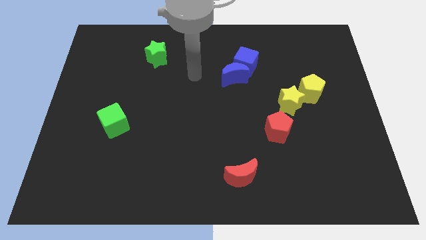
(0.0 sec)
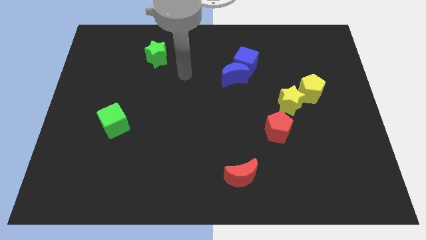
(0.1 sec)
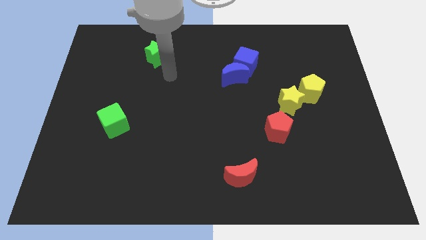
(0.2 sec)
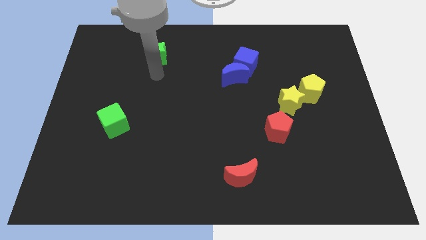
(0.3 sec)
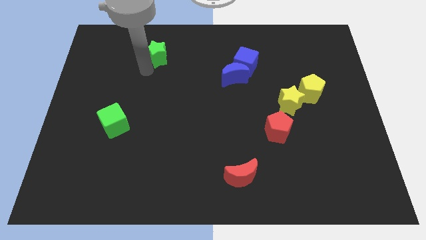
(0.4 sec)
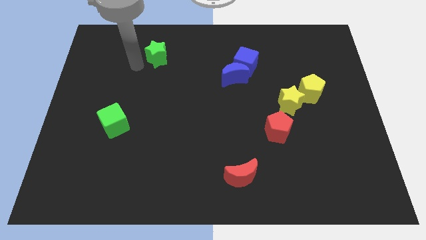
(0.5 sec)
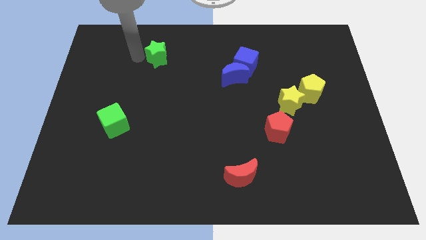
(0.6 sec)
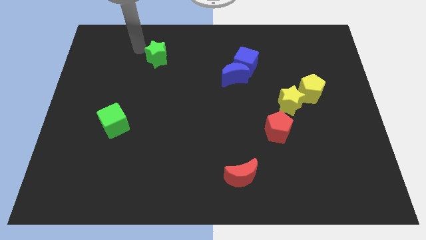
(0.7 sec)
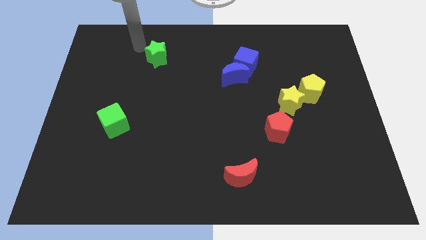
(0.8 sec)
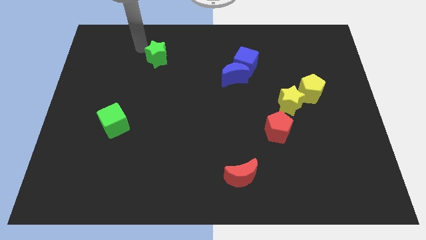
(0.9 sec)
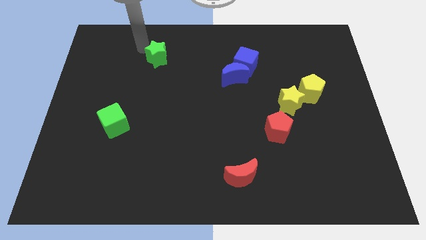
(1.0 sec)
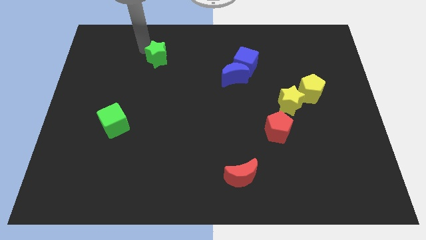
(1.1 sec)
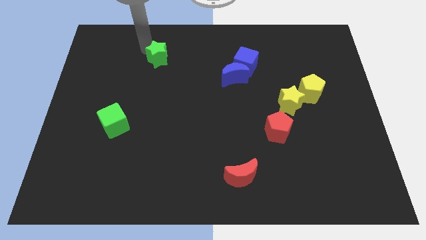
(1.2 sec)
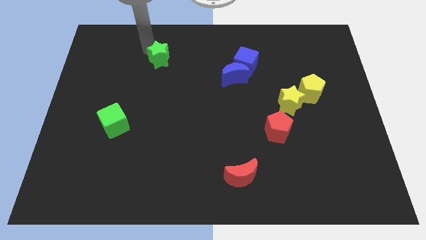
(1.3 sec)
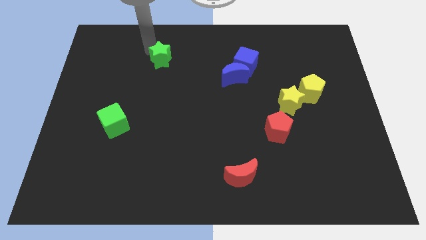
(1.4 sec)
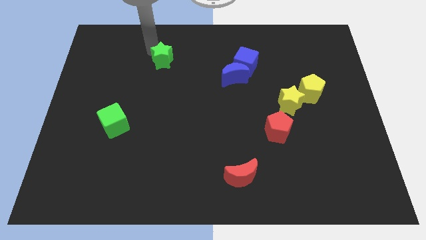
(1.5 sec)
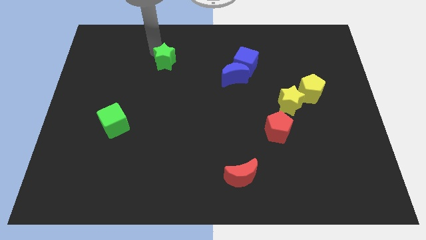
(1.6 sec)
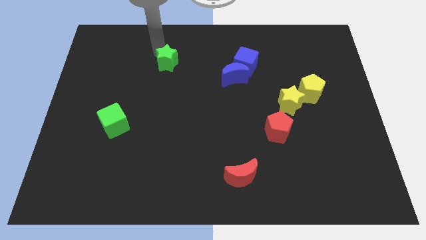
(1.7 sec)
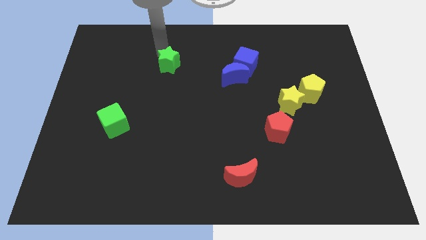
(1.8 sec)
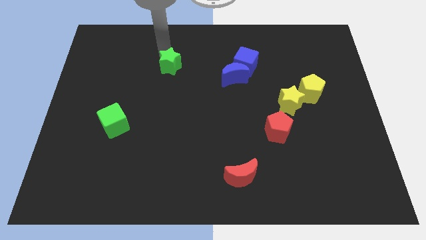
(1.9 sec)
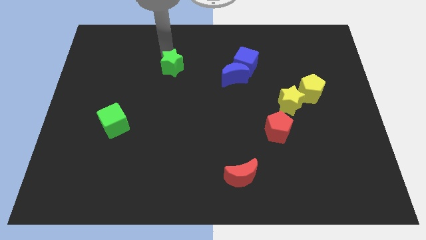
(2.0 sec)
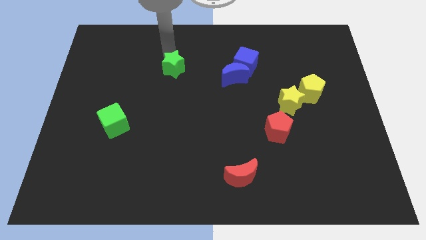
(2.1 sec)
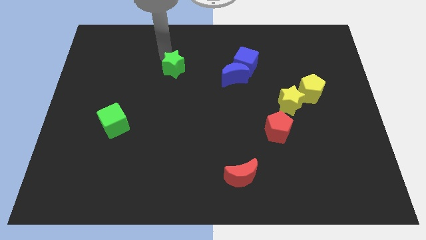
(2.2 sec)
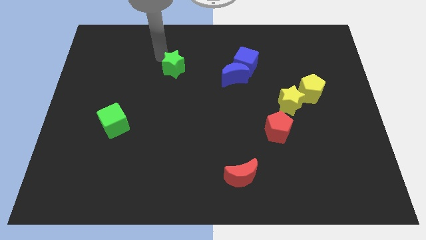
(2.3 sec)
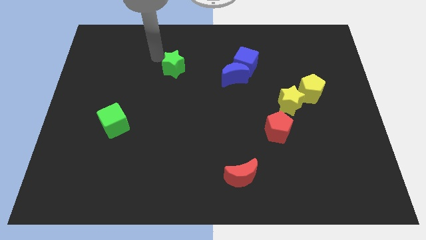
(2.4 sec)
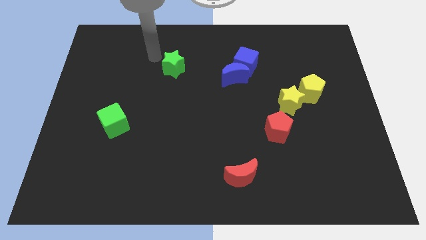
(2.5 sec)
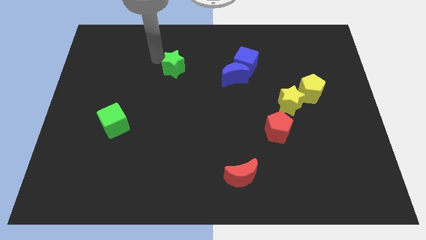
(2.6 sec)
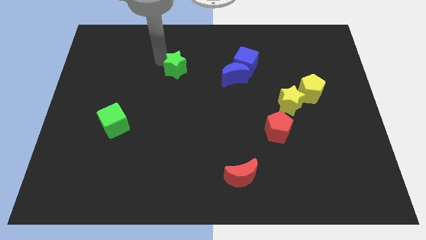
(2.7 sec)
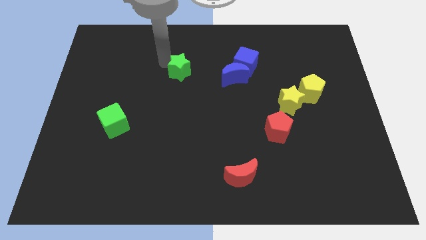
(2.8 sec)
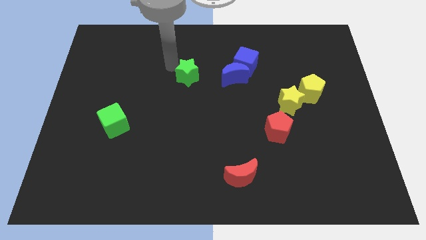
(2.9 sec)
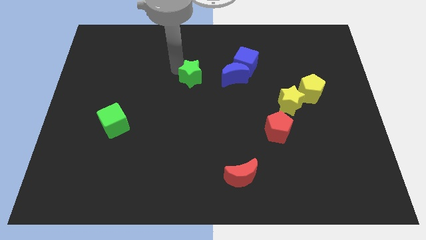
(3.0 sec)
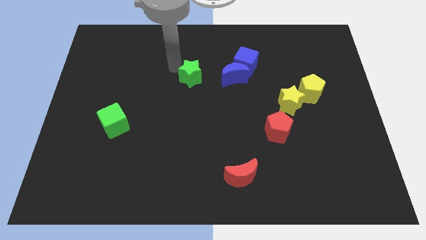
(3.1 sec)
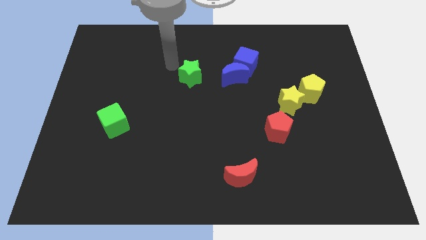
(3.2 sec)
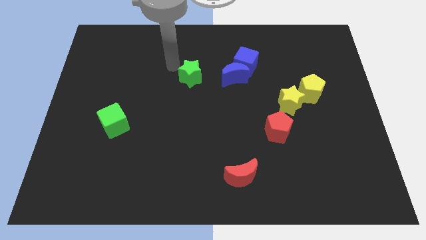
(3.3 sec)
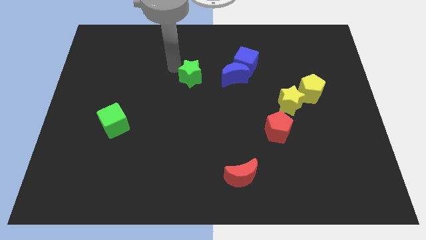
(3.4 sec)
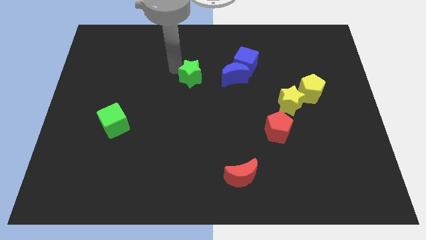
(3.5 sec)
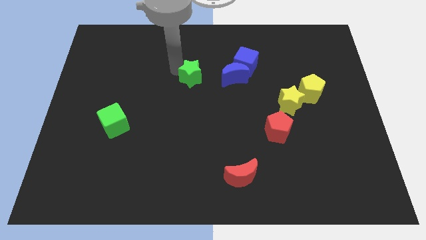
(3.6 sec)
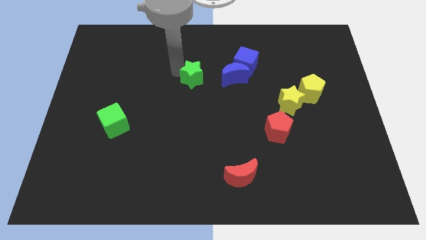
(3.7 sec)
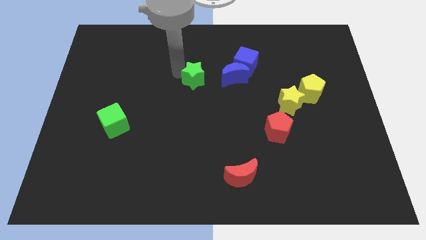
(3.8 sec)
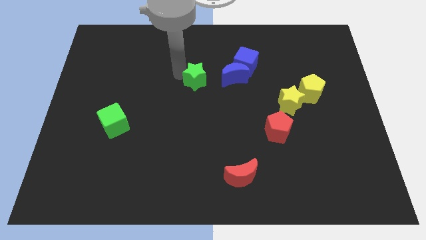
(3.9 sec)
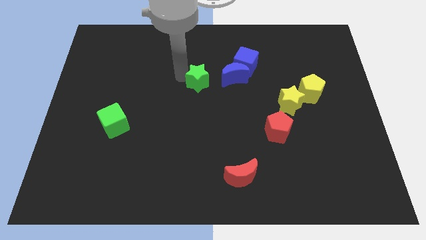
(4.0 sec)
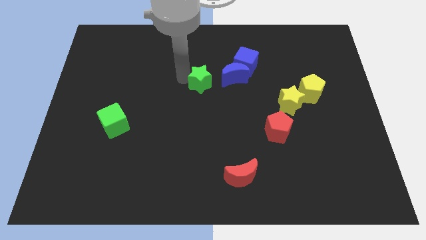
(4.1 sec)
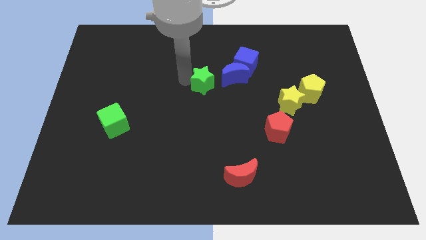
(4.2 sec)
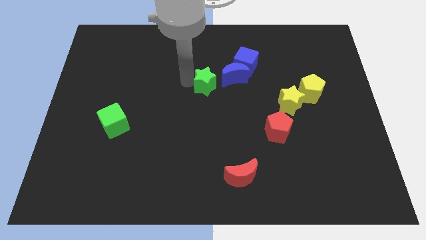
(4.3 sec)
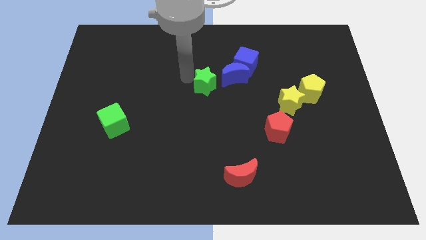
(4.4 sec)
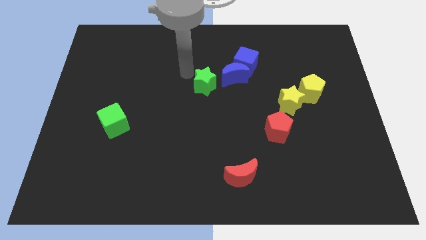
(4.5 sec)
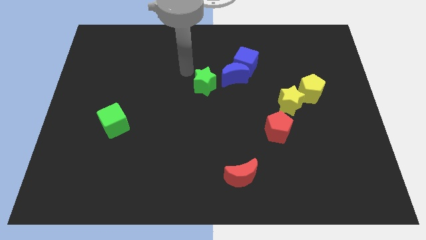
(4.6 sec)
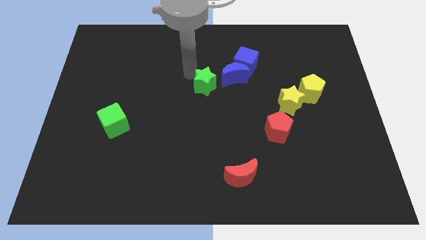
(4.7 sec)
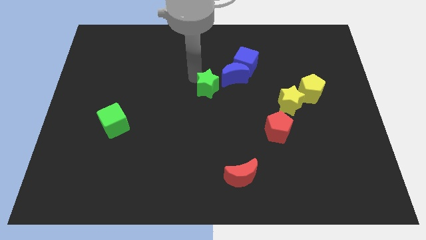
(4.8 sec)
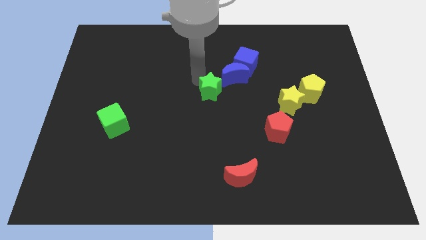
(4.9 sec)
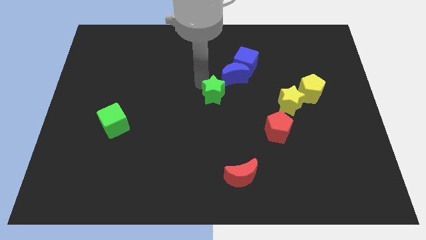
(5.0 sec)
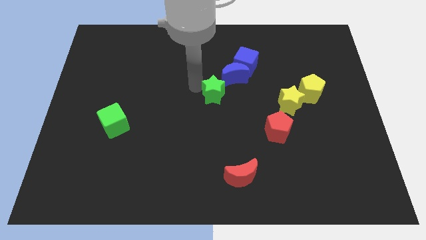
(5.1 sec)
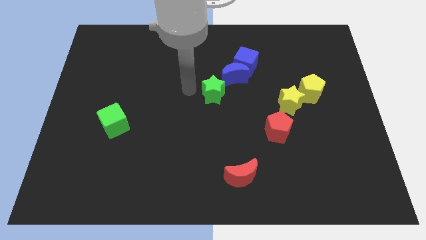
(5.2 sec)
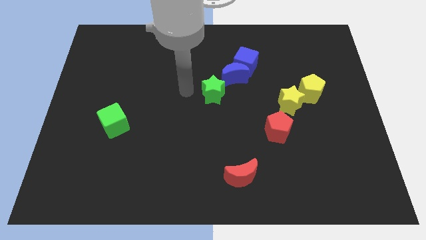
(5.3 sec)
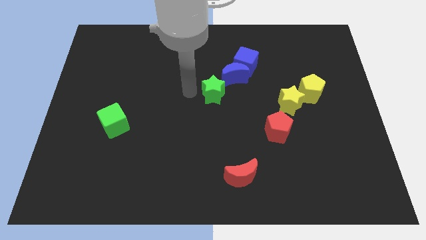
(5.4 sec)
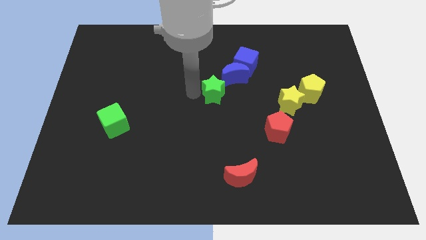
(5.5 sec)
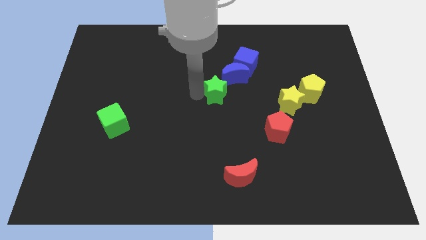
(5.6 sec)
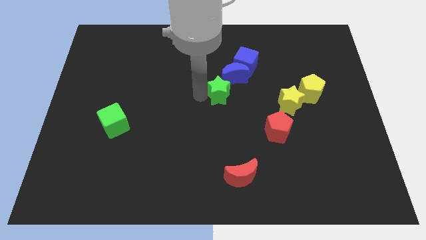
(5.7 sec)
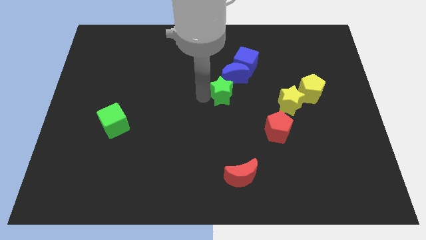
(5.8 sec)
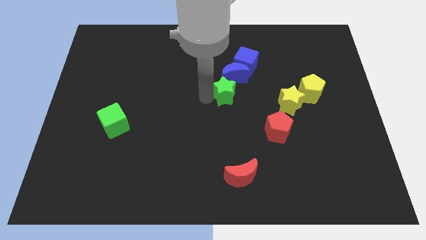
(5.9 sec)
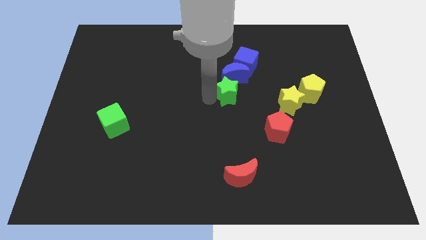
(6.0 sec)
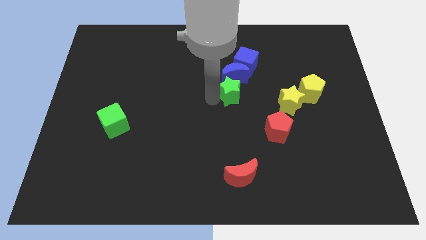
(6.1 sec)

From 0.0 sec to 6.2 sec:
push the green star below the blue cube
